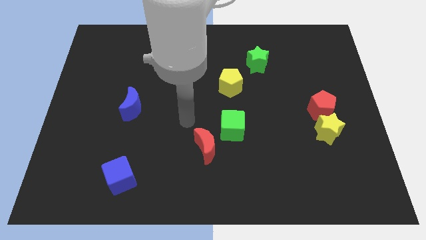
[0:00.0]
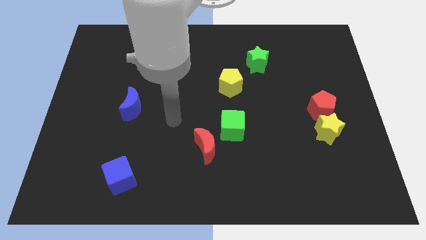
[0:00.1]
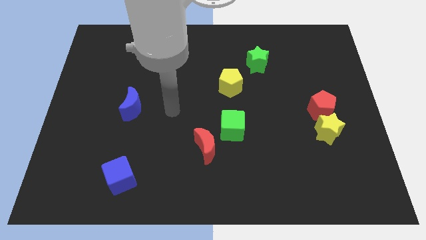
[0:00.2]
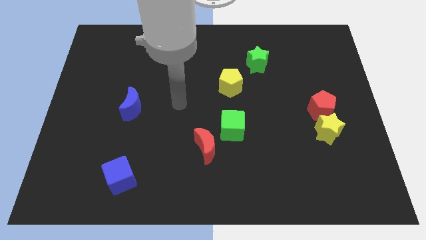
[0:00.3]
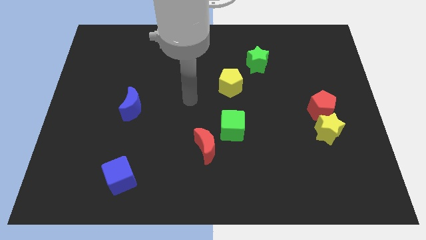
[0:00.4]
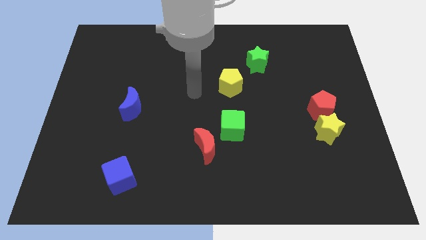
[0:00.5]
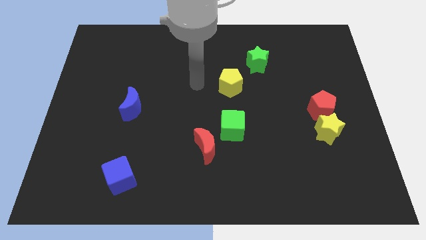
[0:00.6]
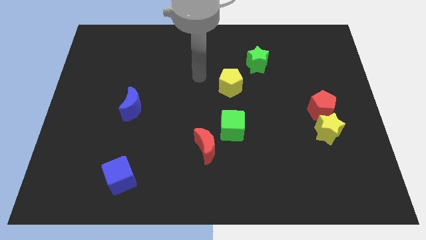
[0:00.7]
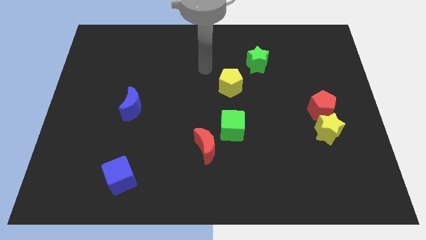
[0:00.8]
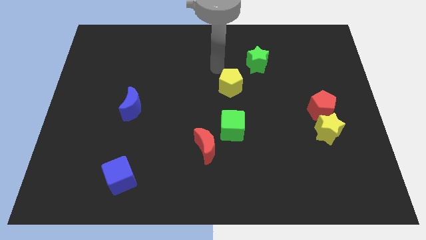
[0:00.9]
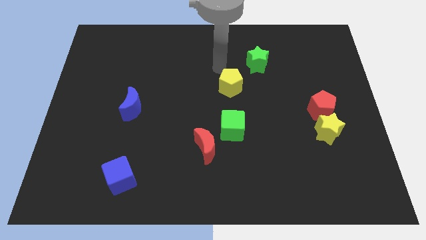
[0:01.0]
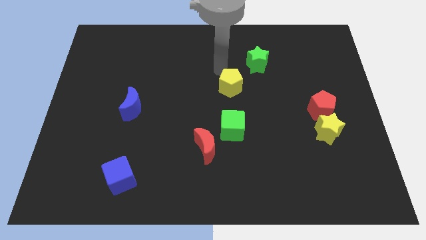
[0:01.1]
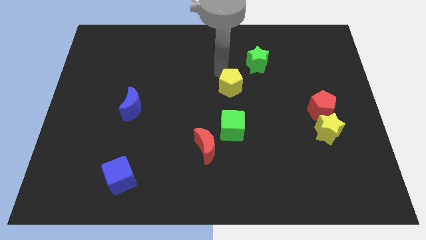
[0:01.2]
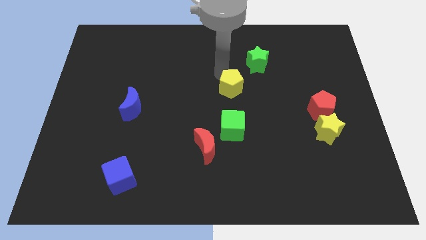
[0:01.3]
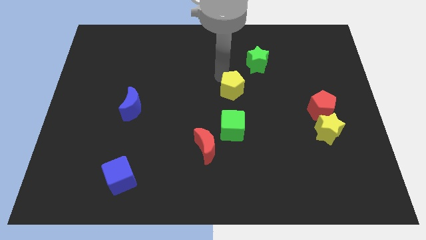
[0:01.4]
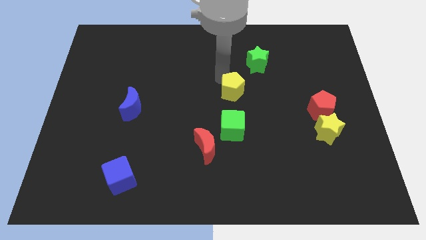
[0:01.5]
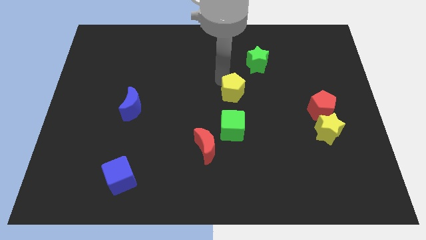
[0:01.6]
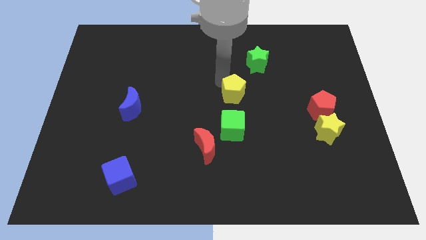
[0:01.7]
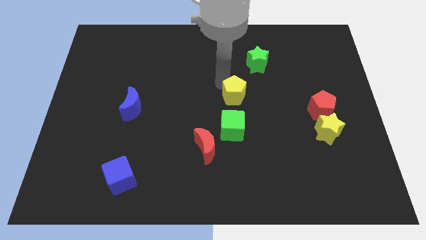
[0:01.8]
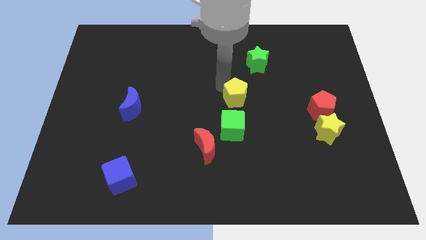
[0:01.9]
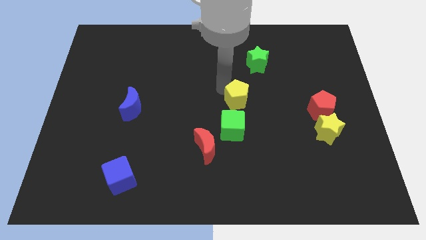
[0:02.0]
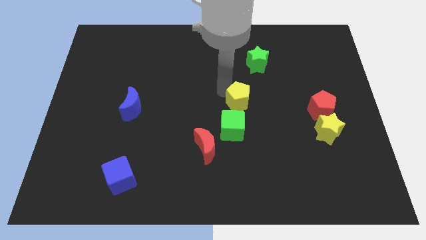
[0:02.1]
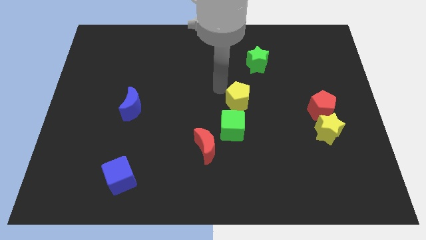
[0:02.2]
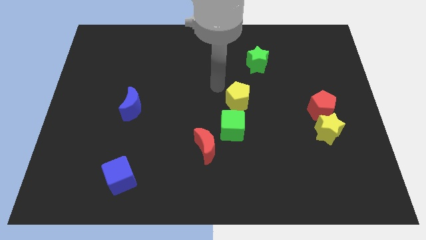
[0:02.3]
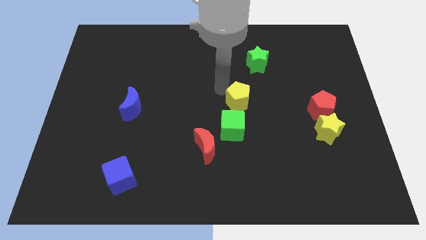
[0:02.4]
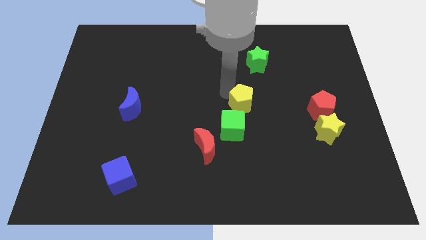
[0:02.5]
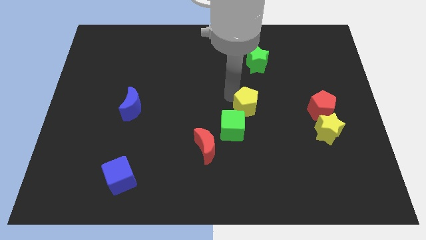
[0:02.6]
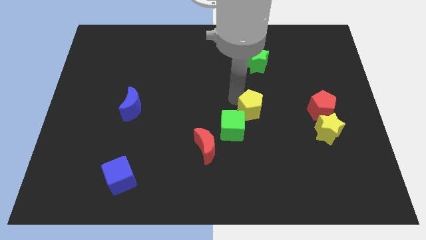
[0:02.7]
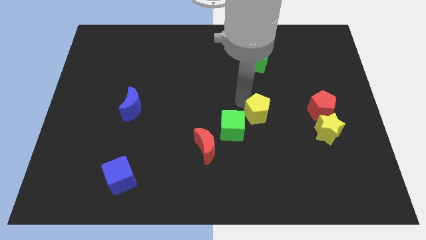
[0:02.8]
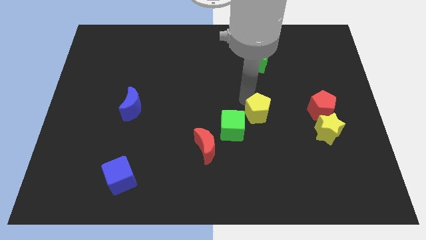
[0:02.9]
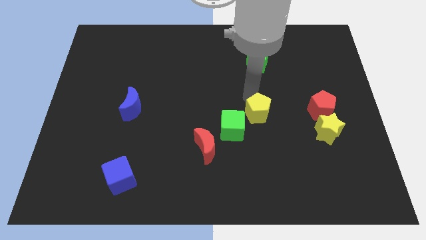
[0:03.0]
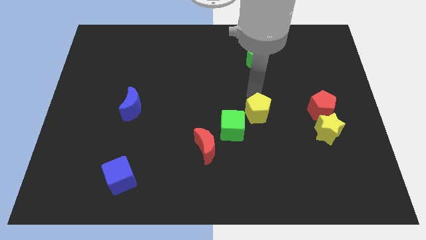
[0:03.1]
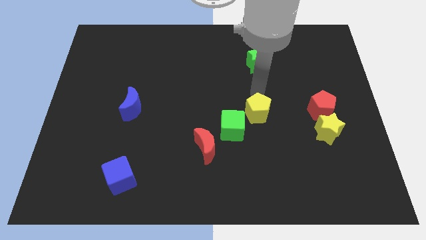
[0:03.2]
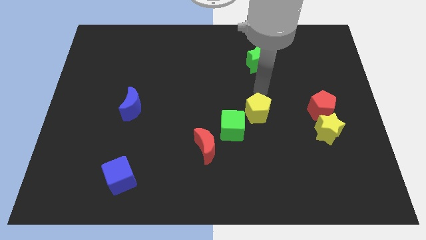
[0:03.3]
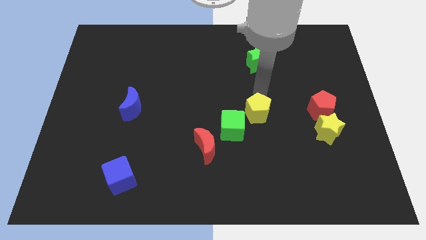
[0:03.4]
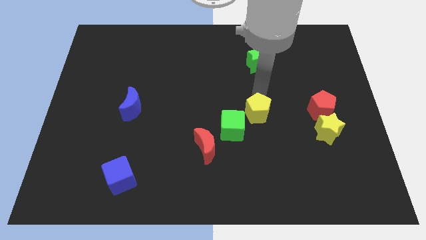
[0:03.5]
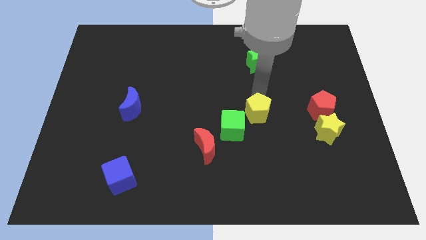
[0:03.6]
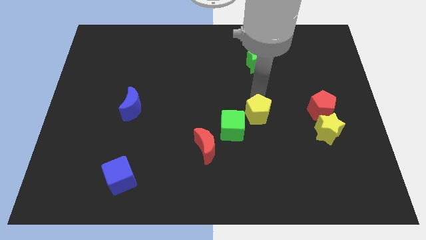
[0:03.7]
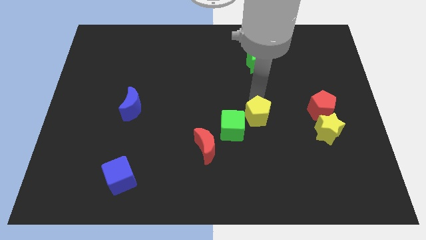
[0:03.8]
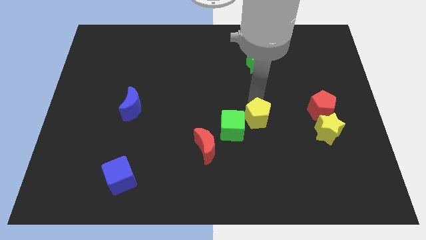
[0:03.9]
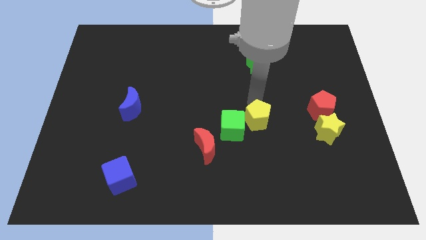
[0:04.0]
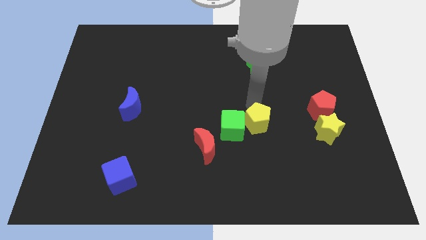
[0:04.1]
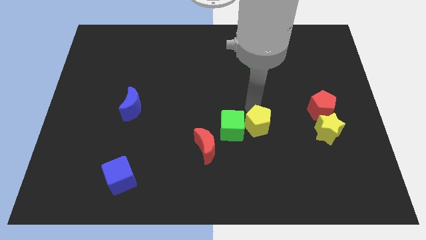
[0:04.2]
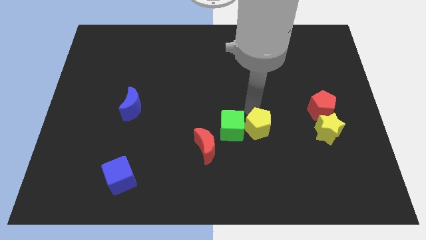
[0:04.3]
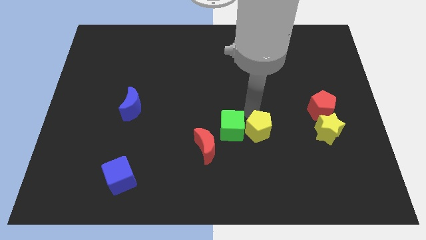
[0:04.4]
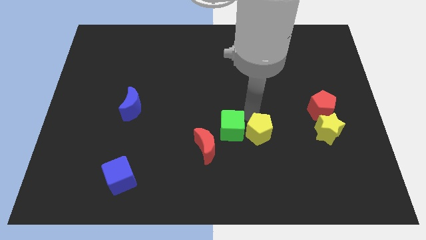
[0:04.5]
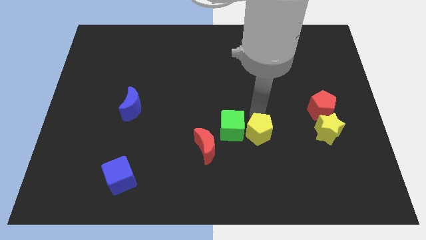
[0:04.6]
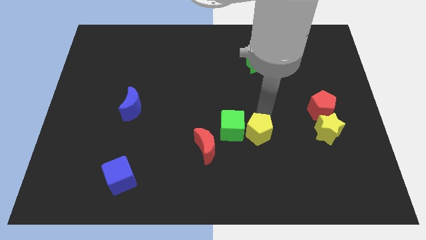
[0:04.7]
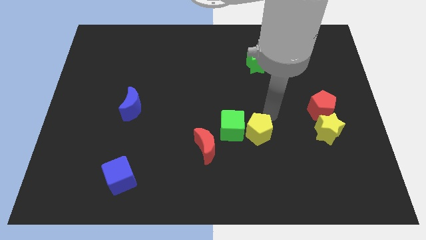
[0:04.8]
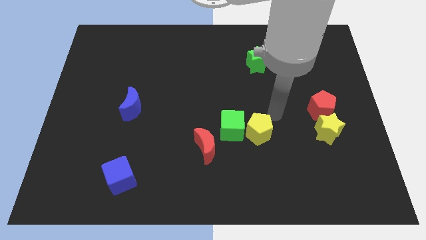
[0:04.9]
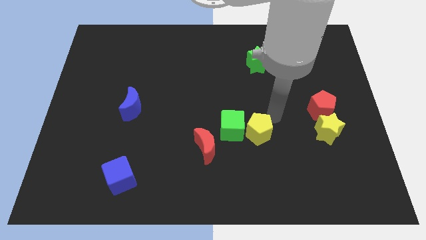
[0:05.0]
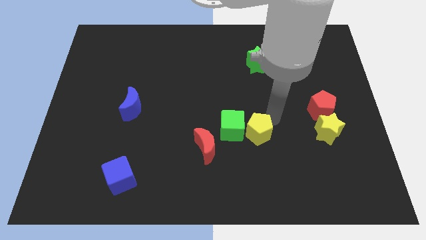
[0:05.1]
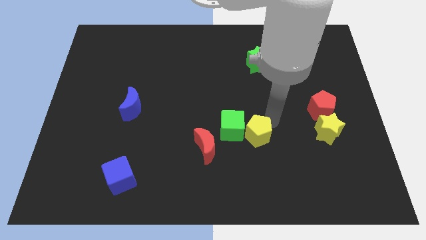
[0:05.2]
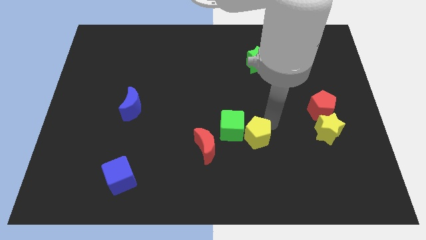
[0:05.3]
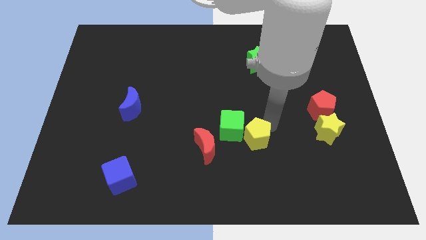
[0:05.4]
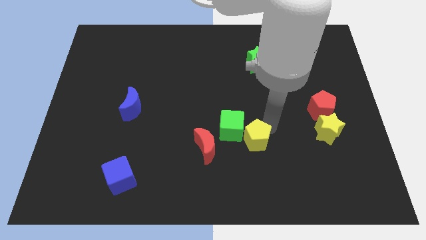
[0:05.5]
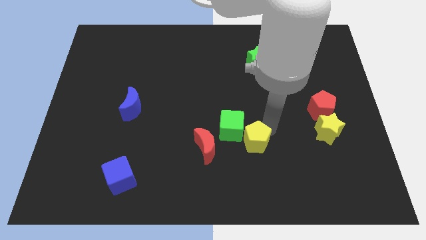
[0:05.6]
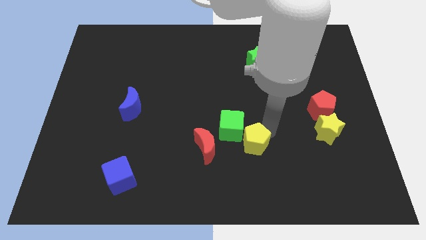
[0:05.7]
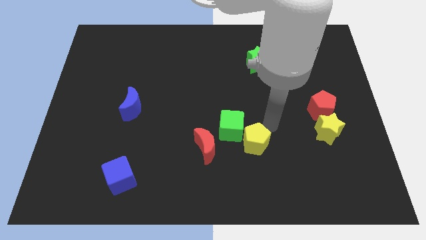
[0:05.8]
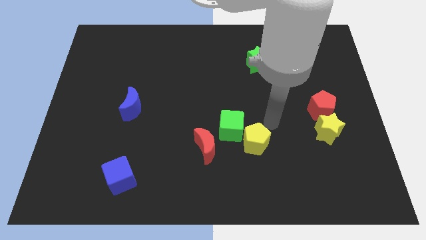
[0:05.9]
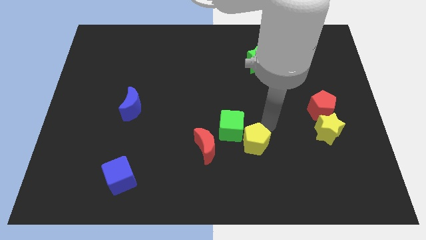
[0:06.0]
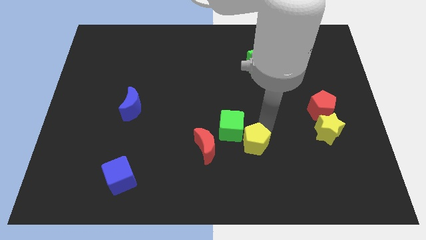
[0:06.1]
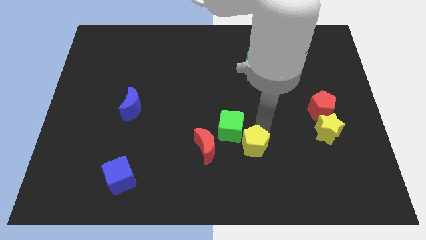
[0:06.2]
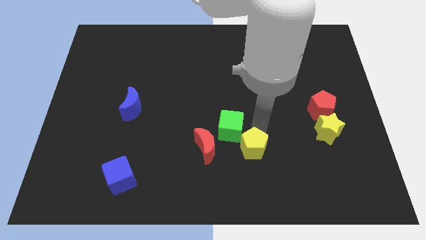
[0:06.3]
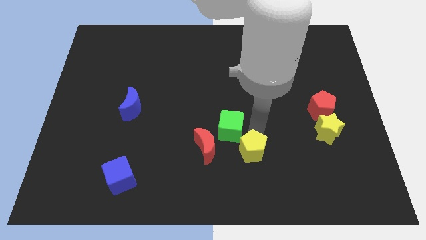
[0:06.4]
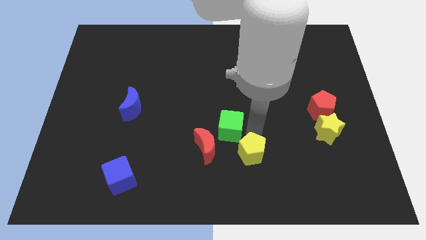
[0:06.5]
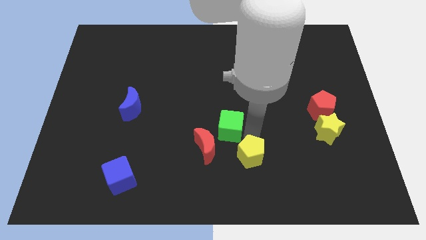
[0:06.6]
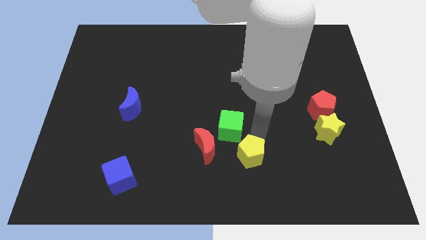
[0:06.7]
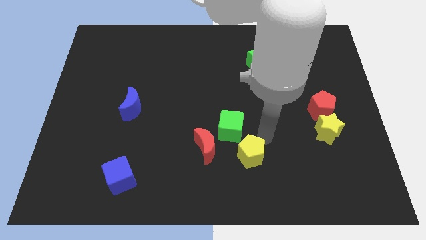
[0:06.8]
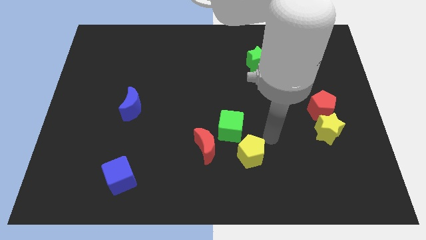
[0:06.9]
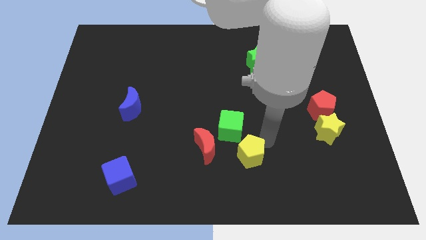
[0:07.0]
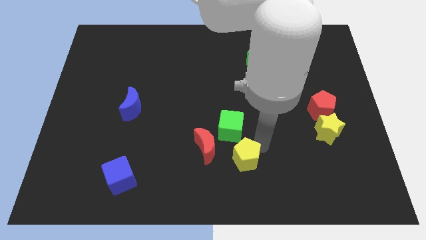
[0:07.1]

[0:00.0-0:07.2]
push the yellow pentagon to the bottom right side of the red moon
